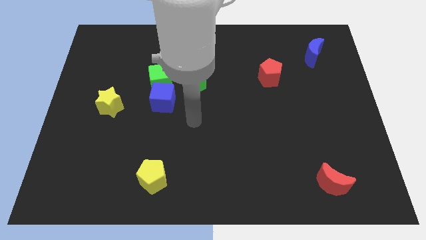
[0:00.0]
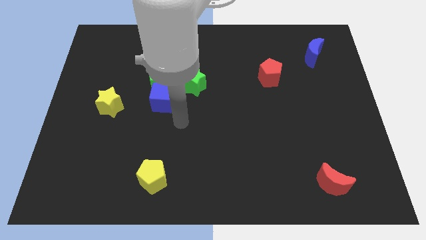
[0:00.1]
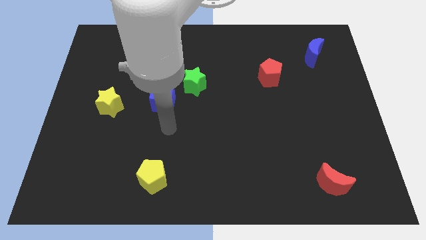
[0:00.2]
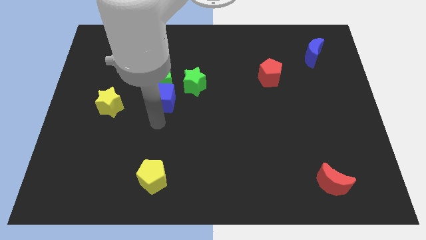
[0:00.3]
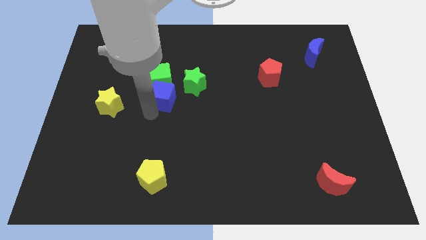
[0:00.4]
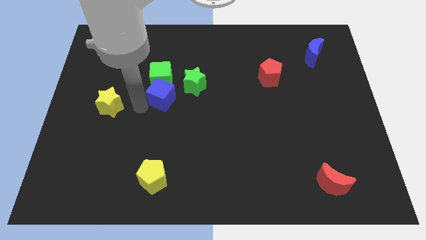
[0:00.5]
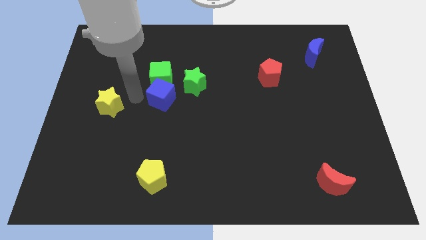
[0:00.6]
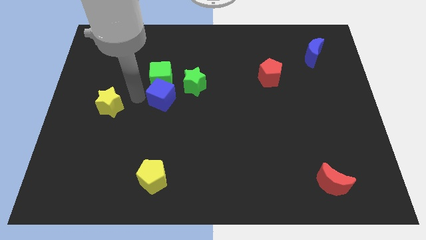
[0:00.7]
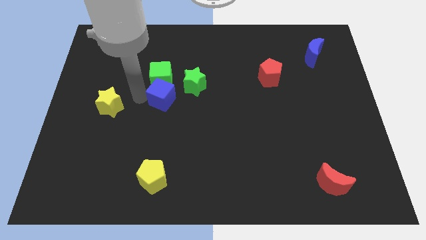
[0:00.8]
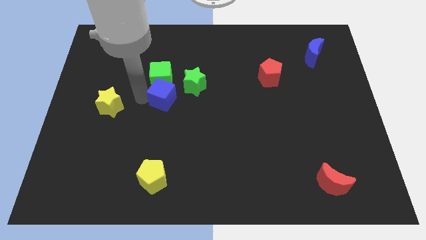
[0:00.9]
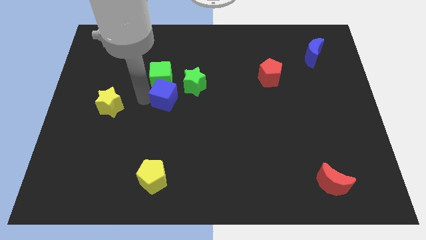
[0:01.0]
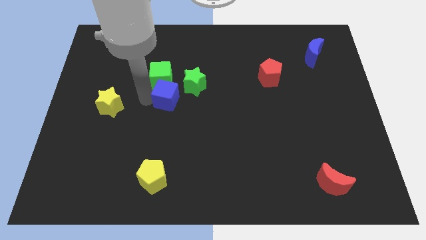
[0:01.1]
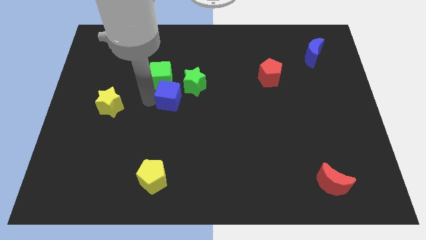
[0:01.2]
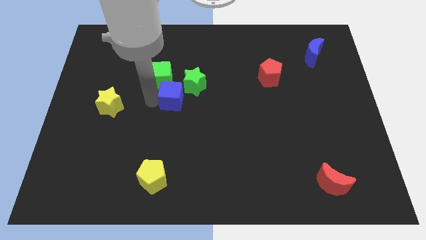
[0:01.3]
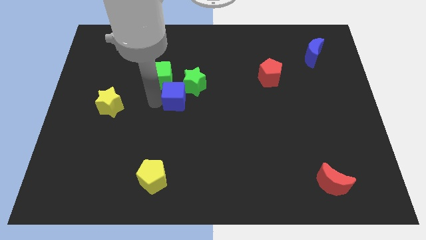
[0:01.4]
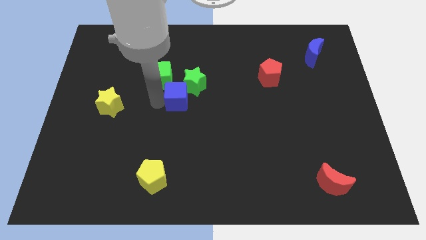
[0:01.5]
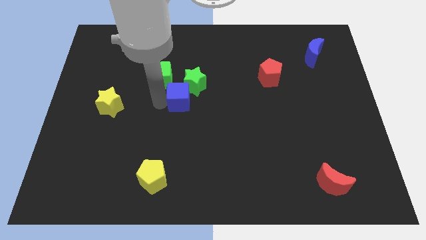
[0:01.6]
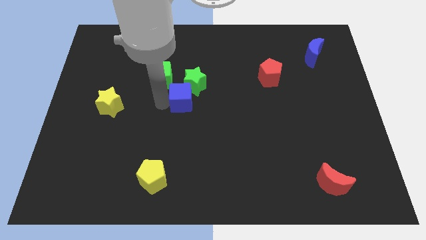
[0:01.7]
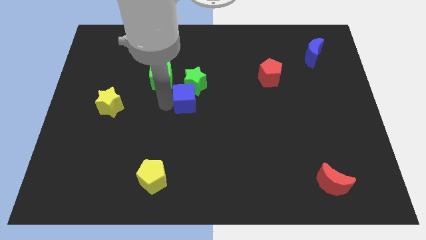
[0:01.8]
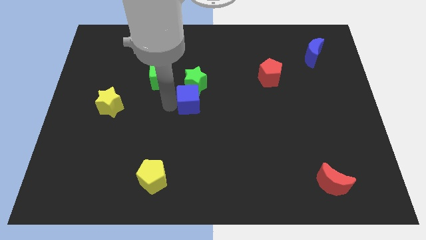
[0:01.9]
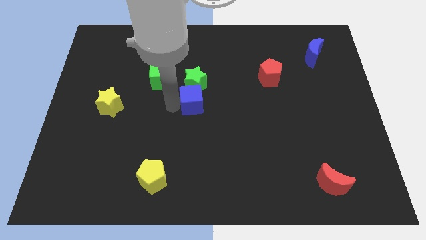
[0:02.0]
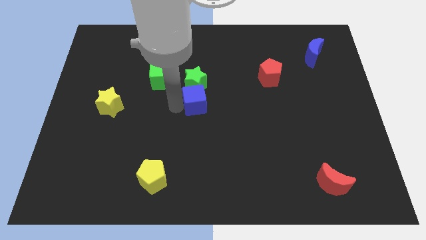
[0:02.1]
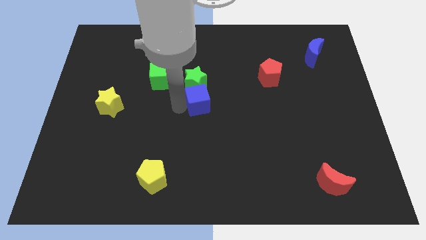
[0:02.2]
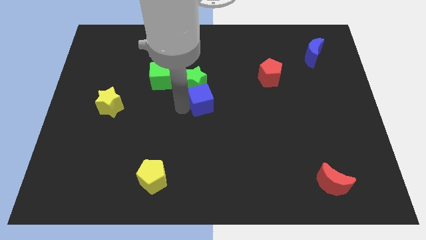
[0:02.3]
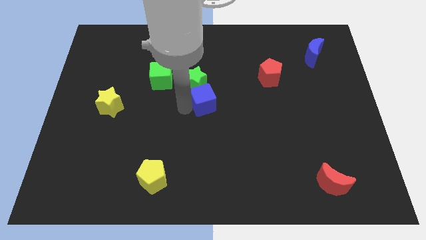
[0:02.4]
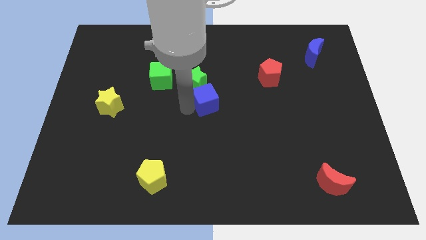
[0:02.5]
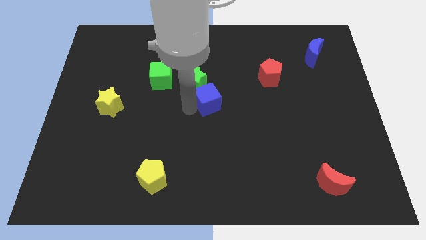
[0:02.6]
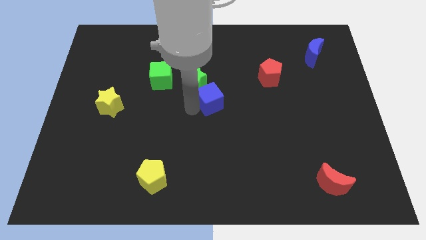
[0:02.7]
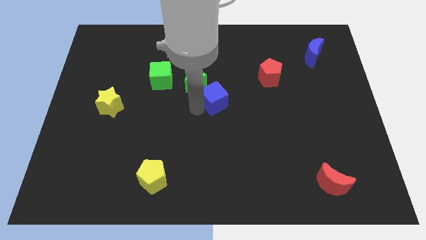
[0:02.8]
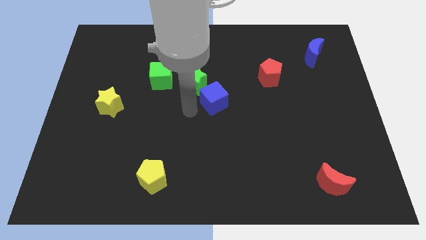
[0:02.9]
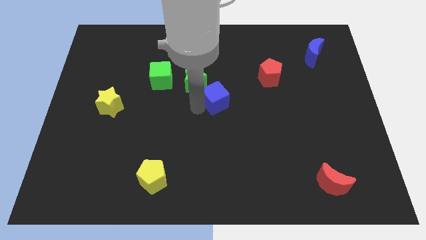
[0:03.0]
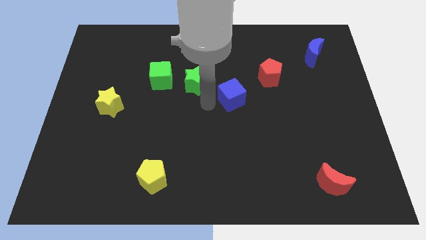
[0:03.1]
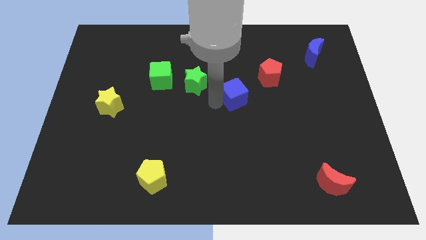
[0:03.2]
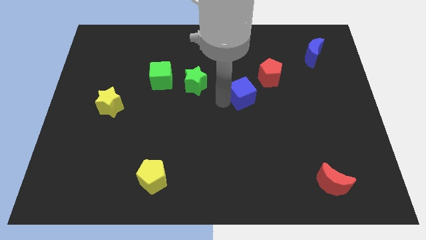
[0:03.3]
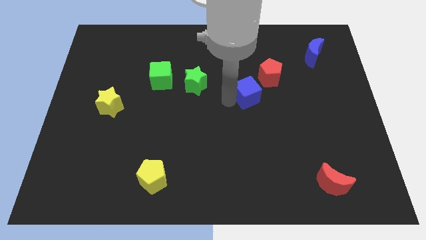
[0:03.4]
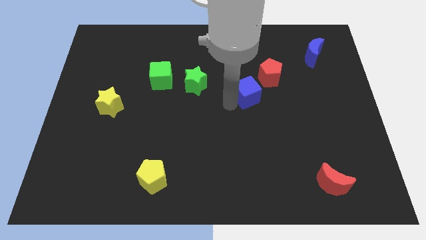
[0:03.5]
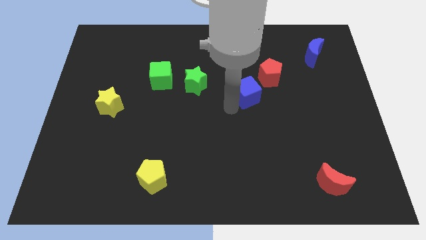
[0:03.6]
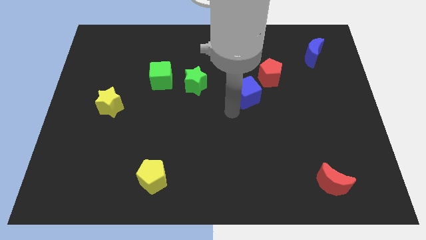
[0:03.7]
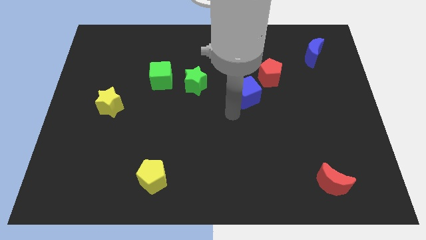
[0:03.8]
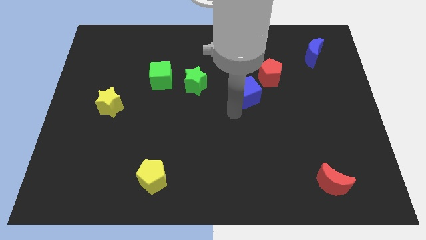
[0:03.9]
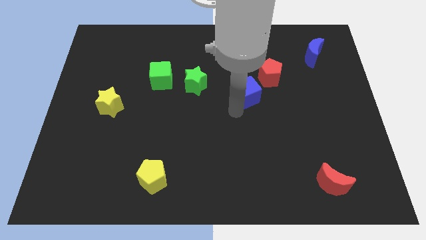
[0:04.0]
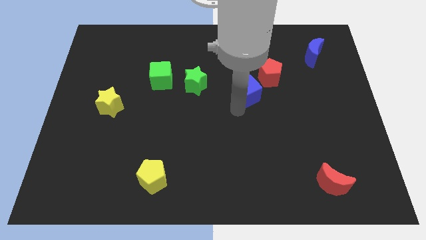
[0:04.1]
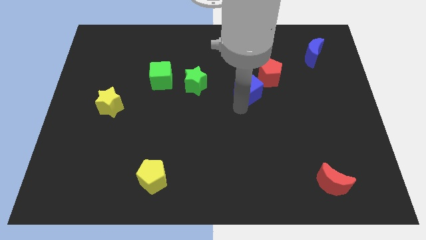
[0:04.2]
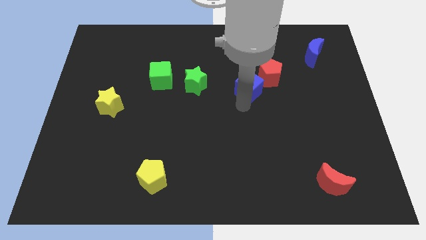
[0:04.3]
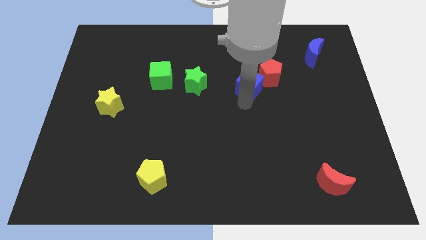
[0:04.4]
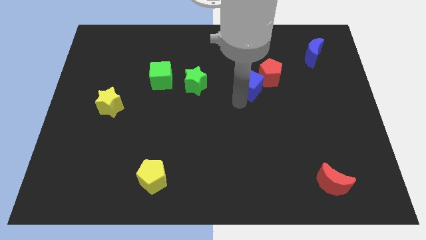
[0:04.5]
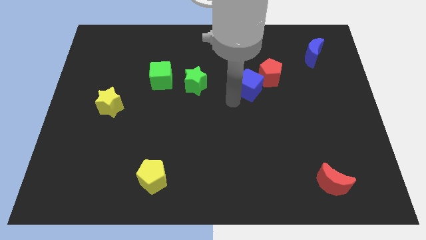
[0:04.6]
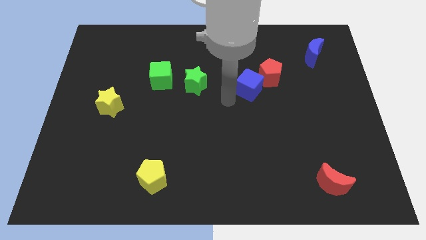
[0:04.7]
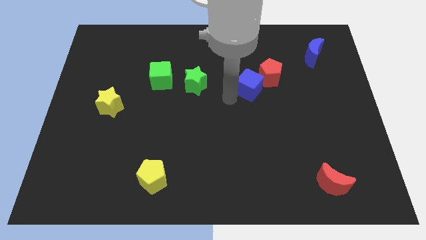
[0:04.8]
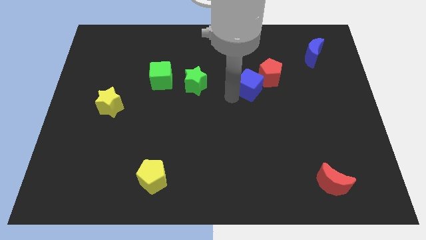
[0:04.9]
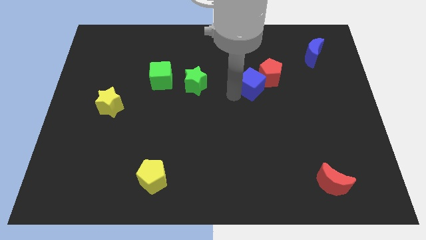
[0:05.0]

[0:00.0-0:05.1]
move the blue cube close to the red pentagon
